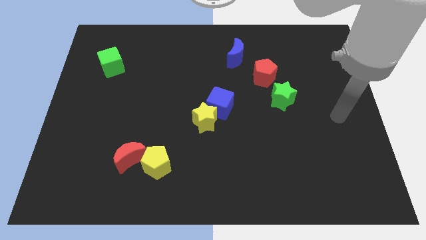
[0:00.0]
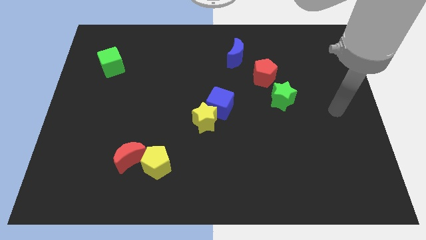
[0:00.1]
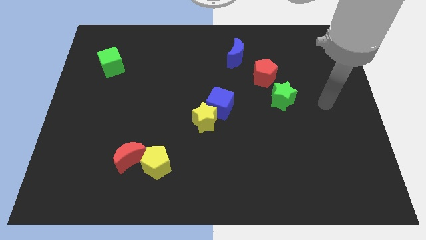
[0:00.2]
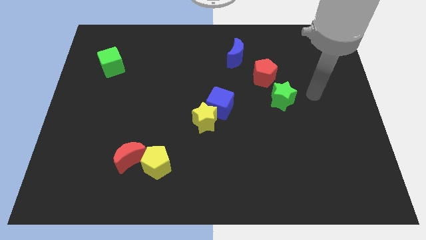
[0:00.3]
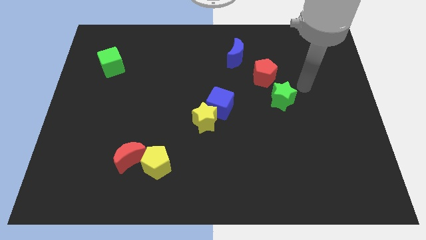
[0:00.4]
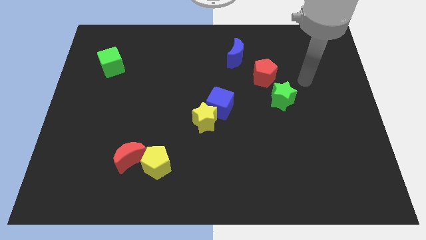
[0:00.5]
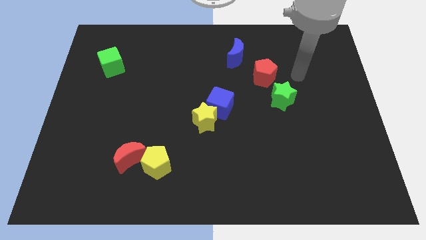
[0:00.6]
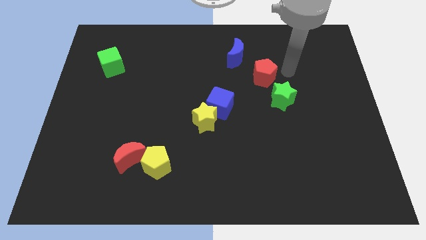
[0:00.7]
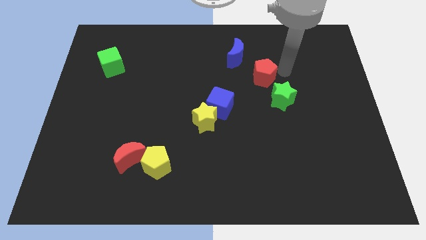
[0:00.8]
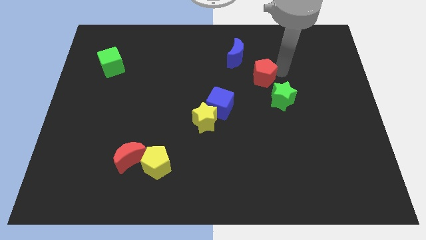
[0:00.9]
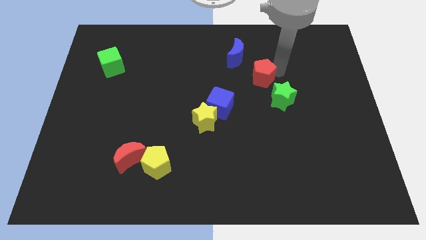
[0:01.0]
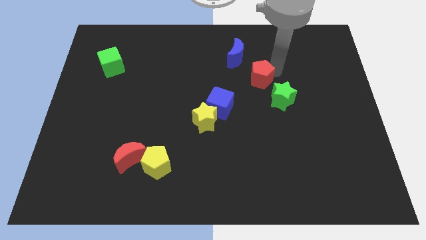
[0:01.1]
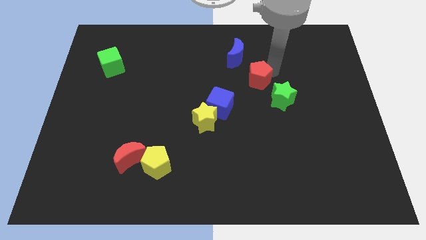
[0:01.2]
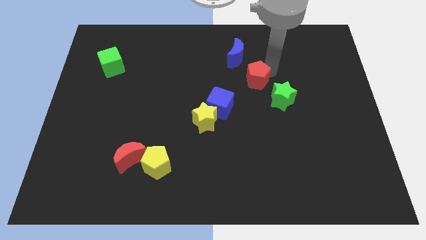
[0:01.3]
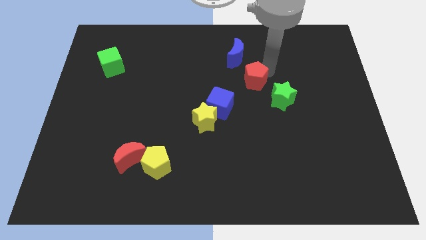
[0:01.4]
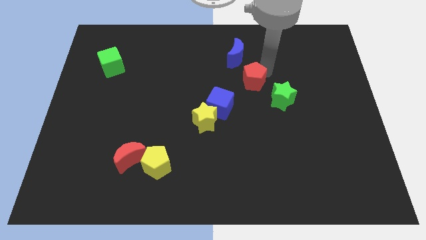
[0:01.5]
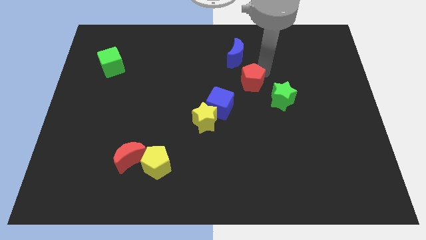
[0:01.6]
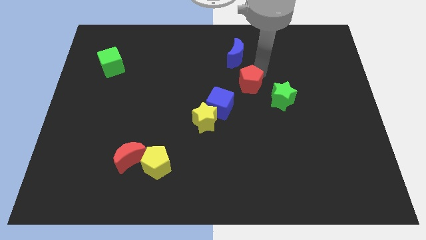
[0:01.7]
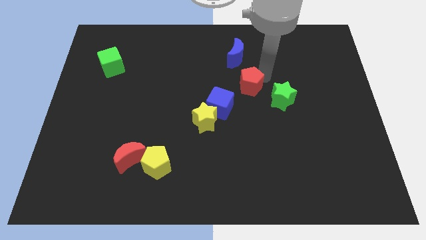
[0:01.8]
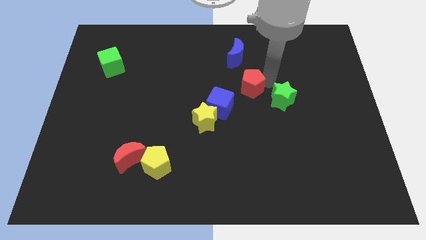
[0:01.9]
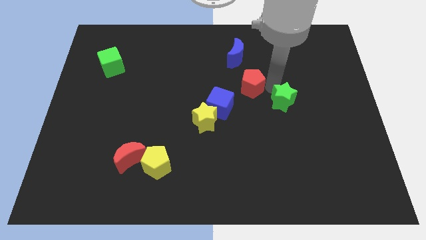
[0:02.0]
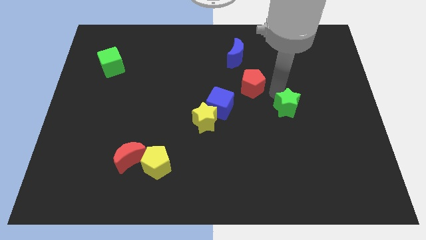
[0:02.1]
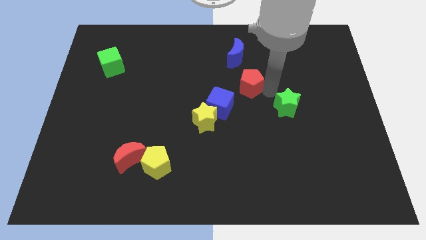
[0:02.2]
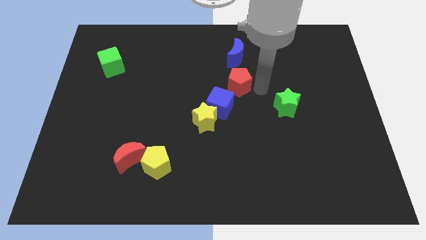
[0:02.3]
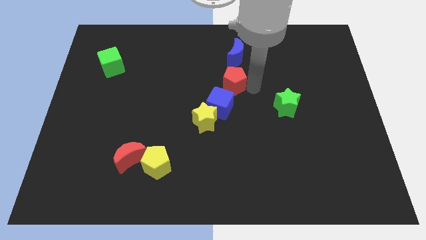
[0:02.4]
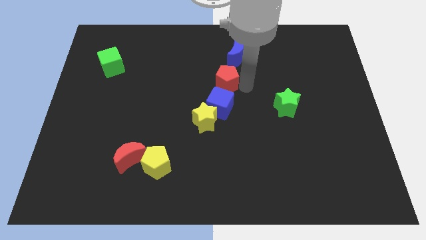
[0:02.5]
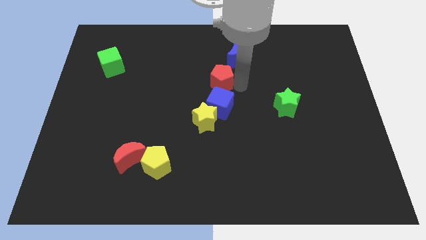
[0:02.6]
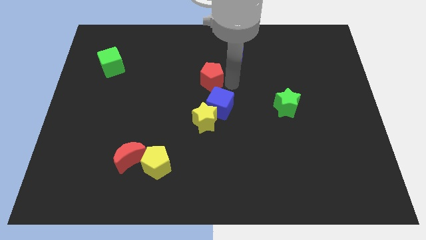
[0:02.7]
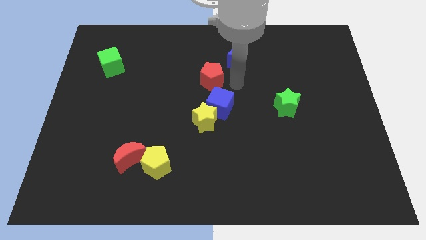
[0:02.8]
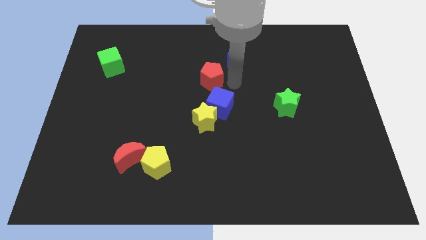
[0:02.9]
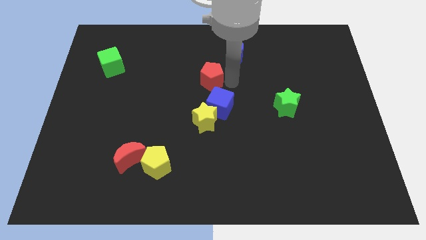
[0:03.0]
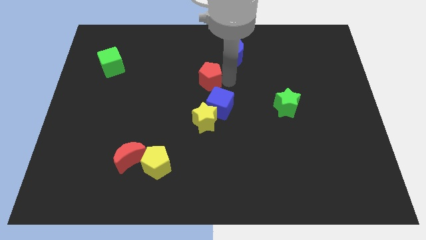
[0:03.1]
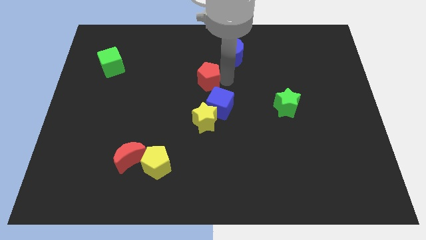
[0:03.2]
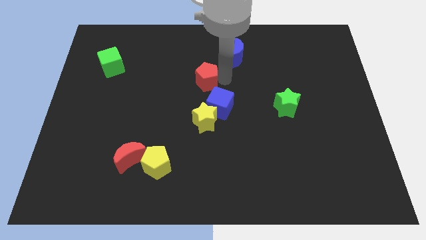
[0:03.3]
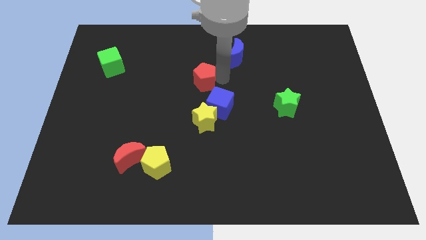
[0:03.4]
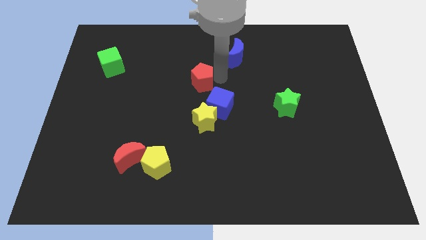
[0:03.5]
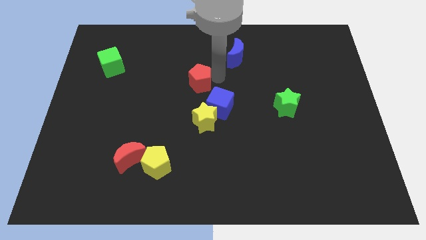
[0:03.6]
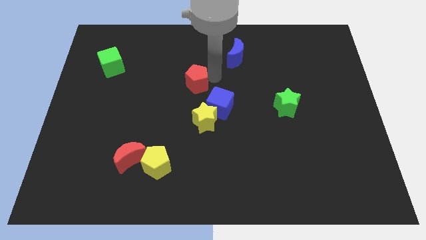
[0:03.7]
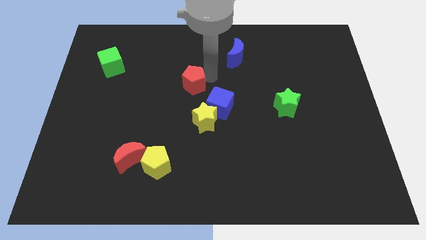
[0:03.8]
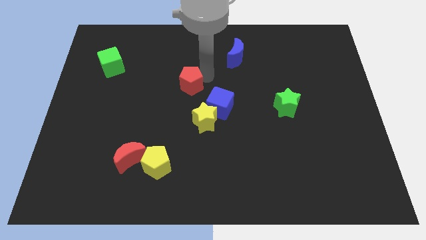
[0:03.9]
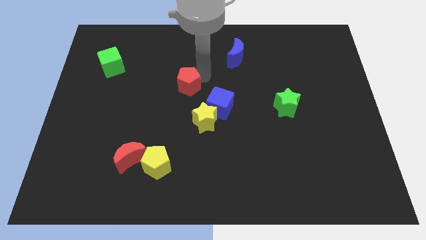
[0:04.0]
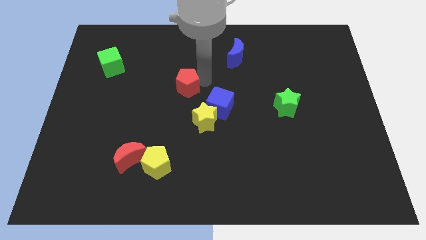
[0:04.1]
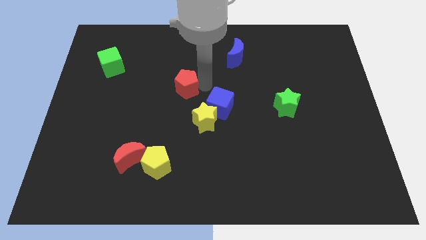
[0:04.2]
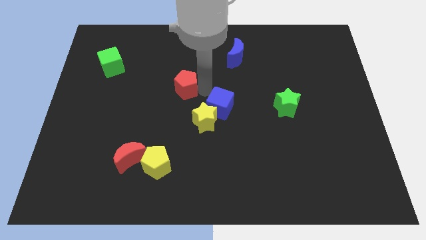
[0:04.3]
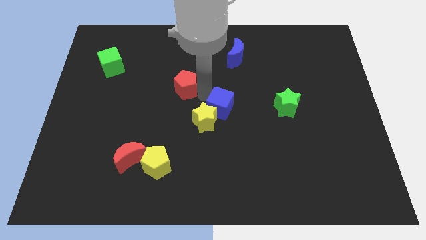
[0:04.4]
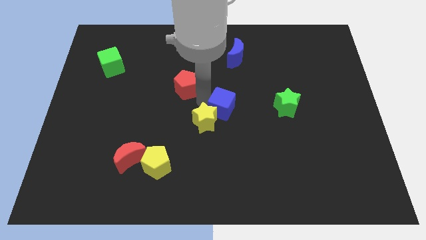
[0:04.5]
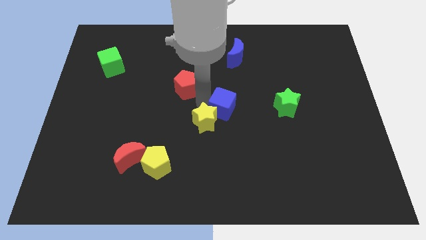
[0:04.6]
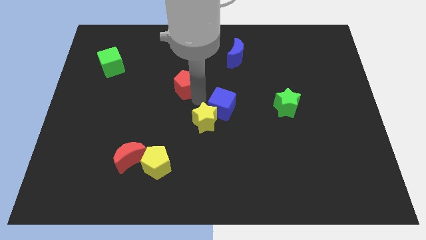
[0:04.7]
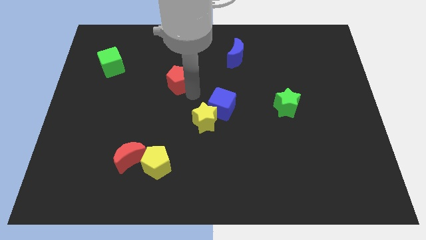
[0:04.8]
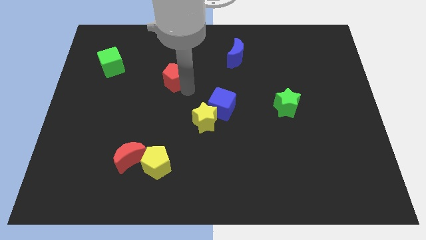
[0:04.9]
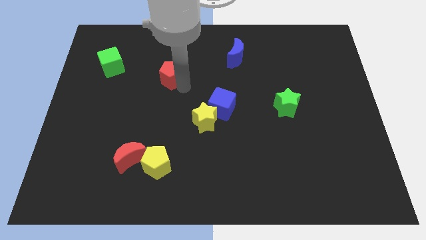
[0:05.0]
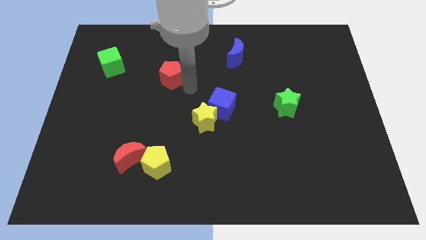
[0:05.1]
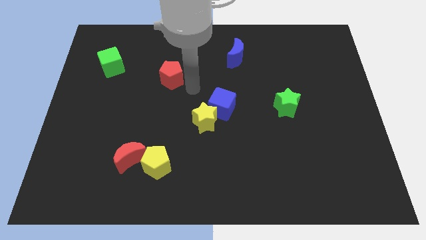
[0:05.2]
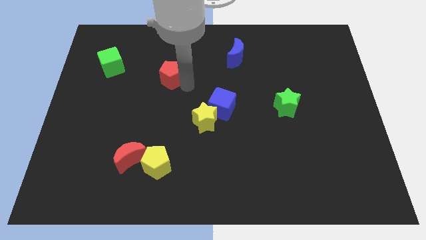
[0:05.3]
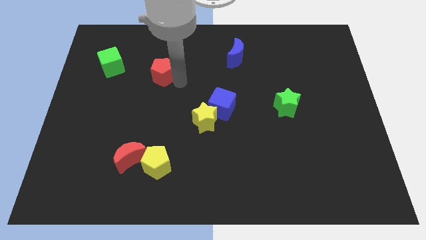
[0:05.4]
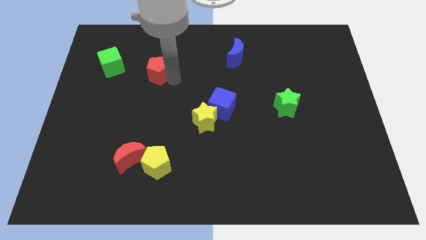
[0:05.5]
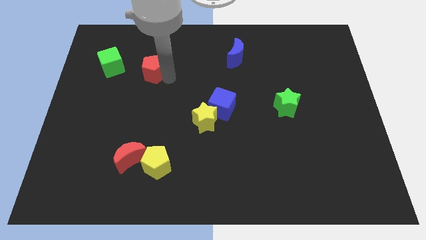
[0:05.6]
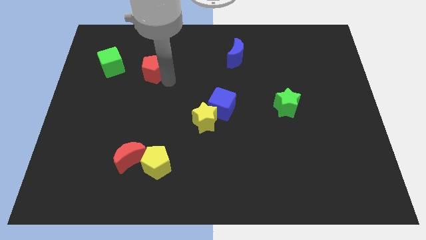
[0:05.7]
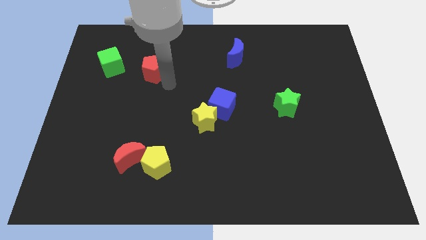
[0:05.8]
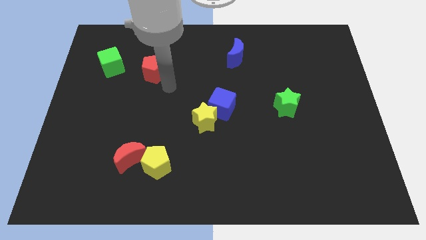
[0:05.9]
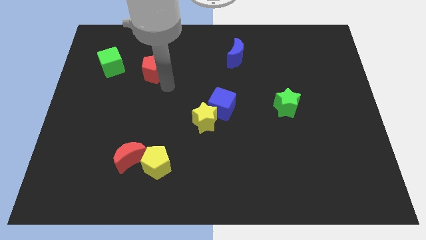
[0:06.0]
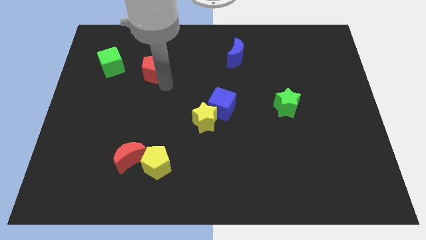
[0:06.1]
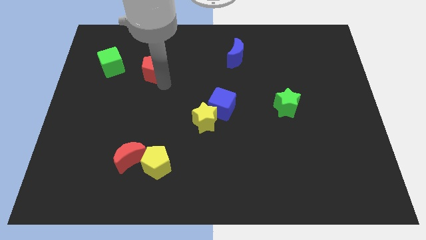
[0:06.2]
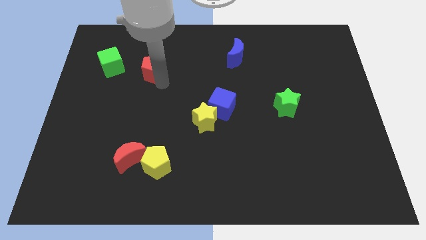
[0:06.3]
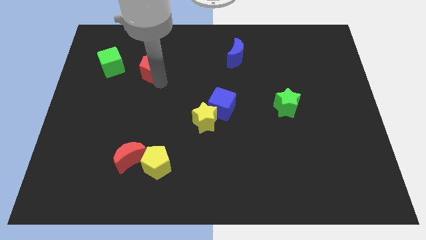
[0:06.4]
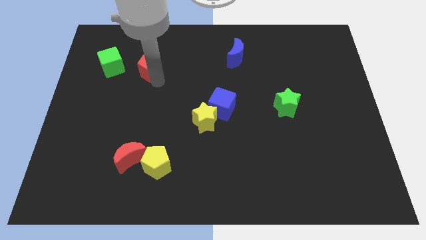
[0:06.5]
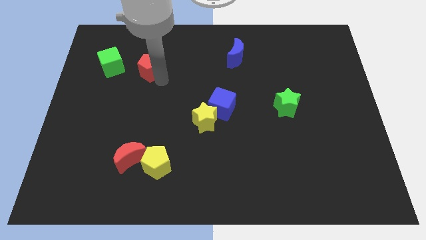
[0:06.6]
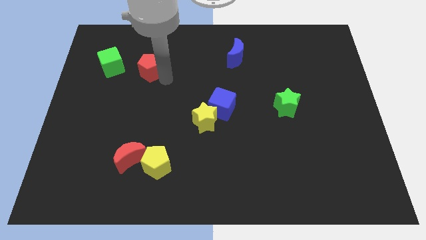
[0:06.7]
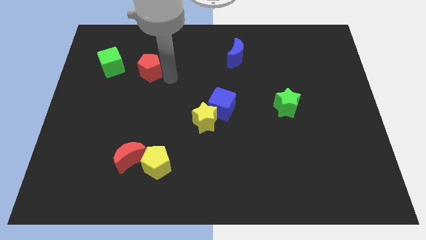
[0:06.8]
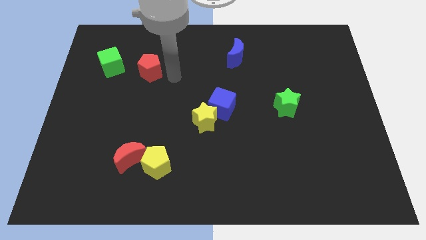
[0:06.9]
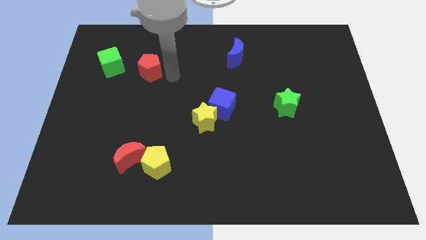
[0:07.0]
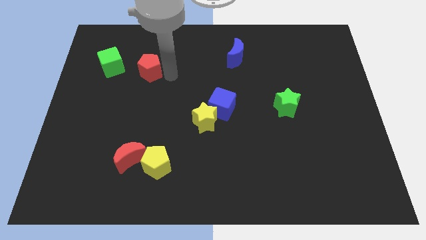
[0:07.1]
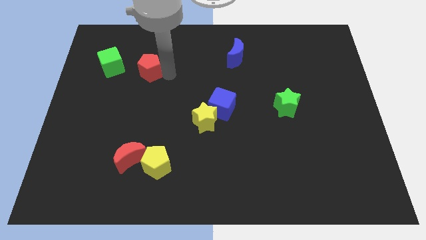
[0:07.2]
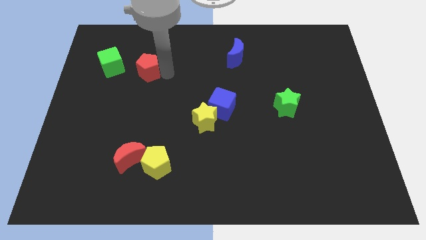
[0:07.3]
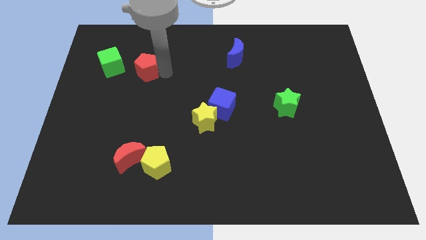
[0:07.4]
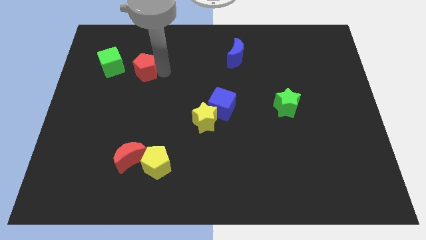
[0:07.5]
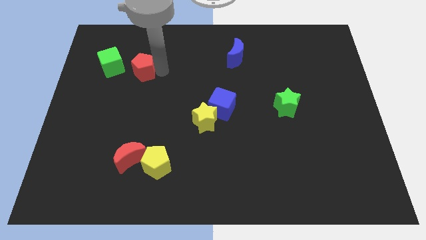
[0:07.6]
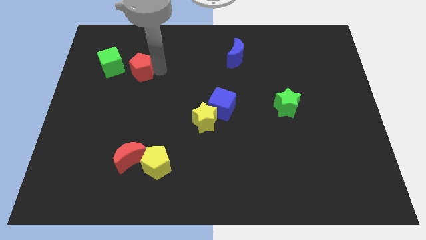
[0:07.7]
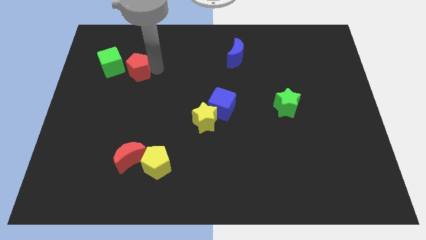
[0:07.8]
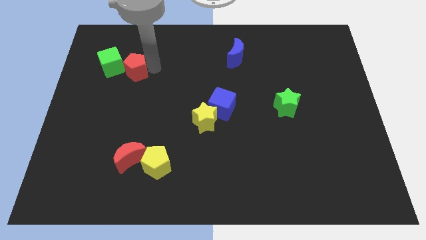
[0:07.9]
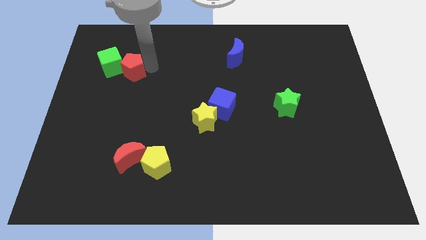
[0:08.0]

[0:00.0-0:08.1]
move the red pentagon to the green cube
